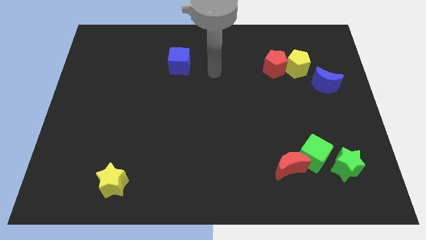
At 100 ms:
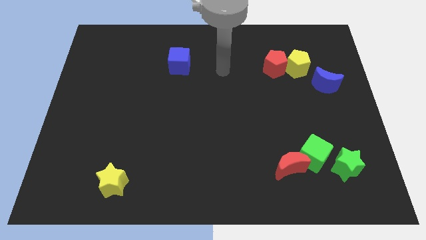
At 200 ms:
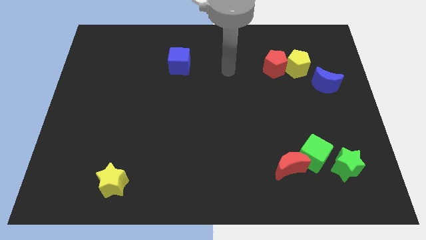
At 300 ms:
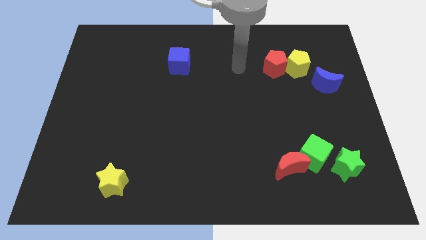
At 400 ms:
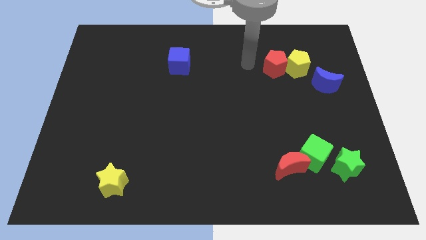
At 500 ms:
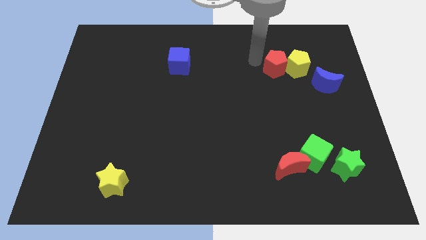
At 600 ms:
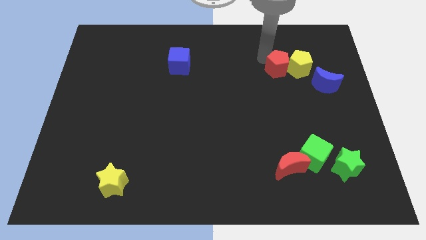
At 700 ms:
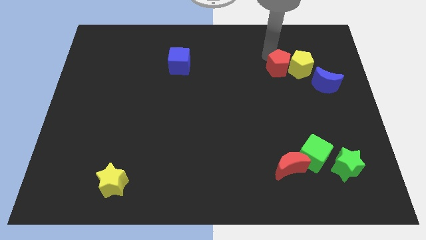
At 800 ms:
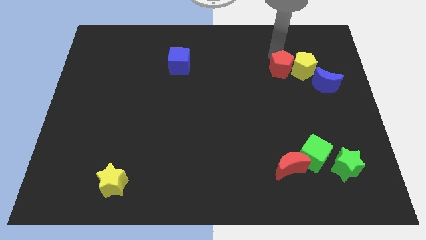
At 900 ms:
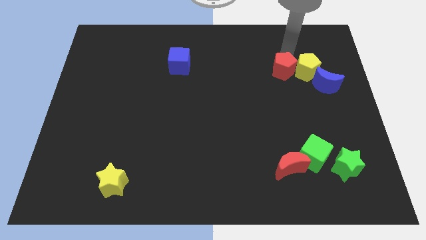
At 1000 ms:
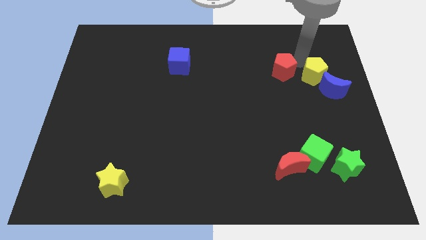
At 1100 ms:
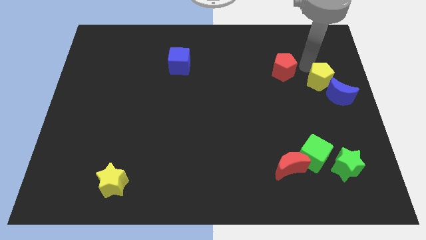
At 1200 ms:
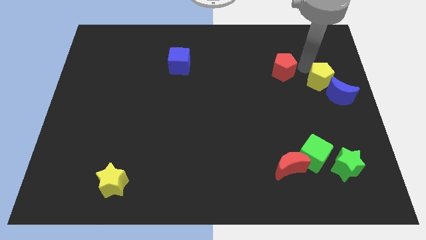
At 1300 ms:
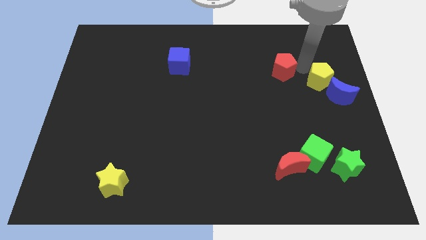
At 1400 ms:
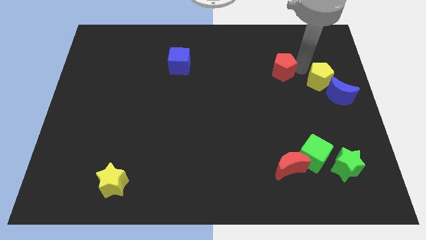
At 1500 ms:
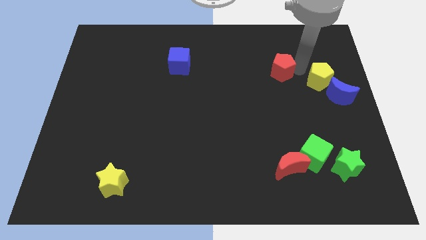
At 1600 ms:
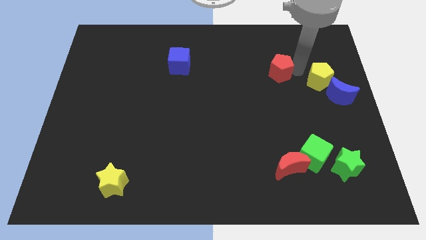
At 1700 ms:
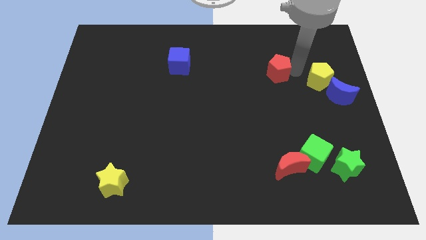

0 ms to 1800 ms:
move the red pentagon away from the yellow pentagon

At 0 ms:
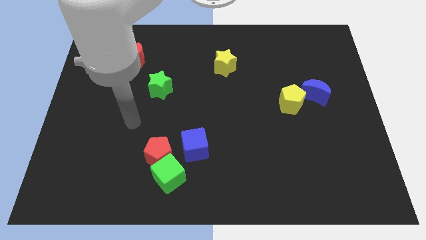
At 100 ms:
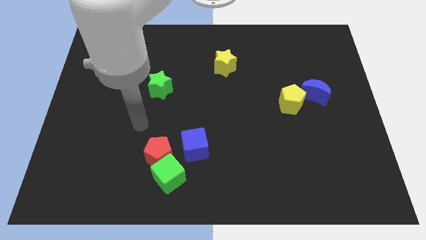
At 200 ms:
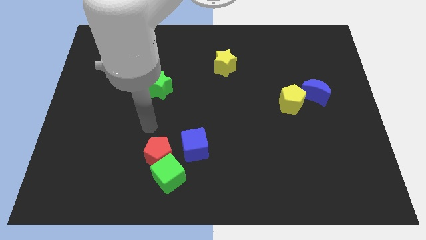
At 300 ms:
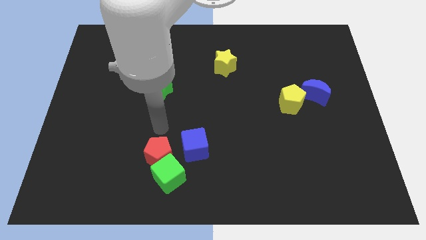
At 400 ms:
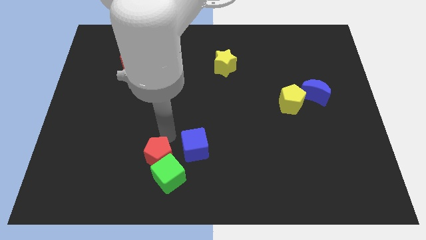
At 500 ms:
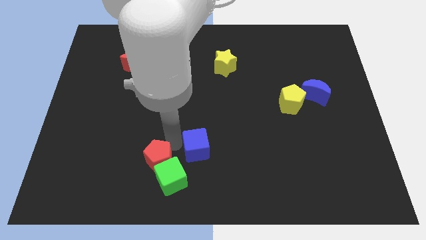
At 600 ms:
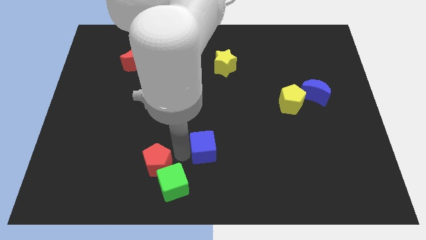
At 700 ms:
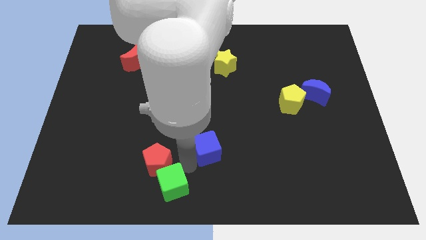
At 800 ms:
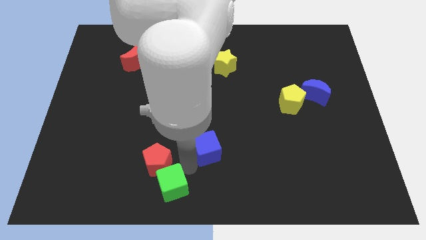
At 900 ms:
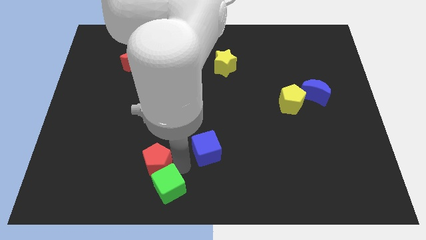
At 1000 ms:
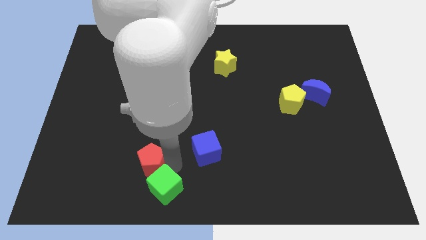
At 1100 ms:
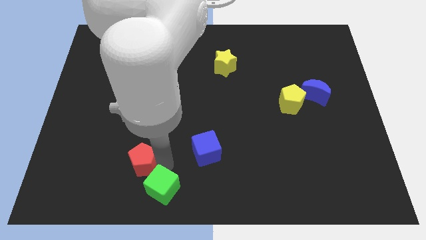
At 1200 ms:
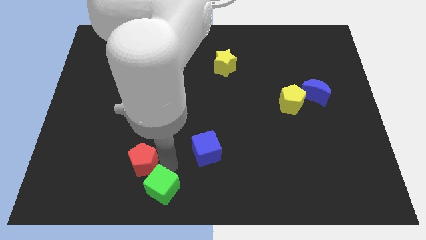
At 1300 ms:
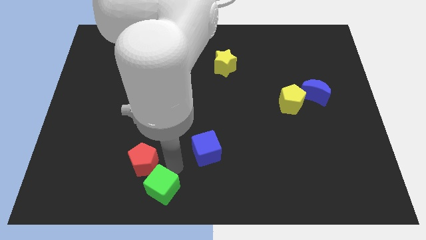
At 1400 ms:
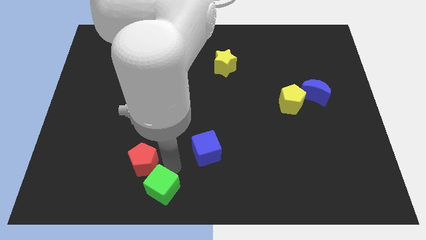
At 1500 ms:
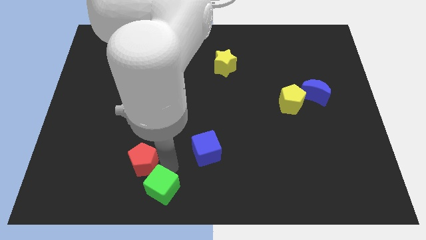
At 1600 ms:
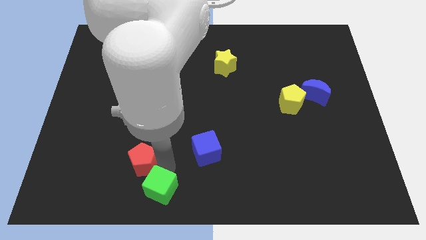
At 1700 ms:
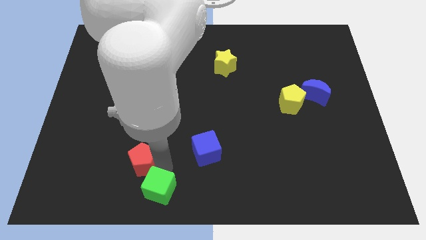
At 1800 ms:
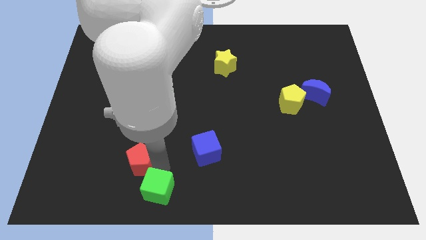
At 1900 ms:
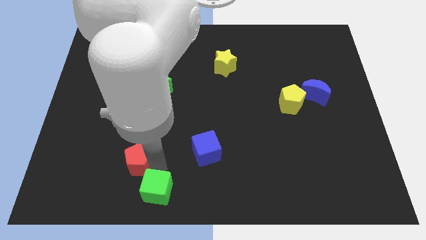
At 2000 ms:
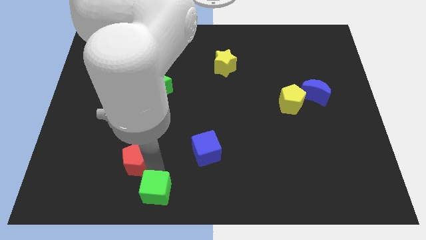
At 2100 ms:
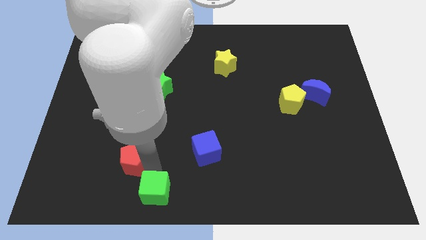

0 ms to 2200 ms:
move the red pentagon away from the green cube and blue cube

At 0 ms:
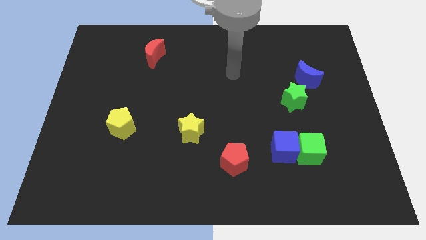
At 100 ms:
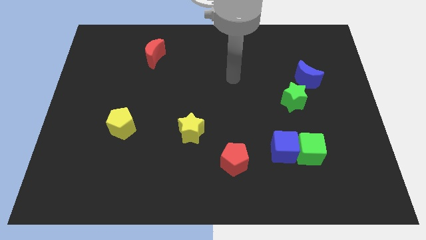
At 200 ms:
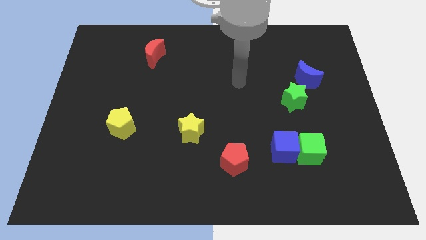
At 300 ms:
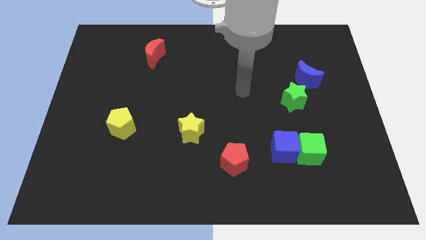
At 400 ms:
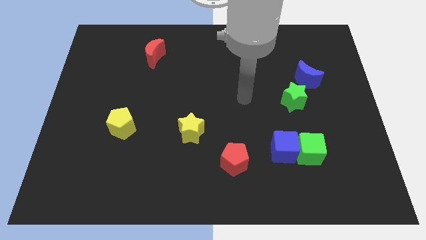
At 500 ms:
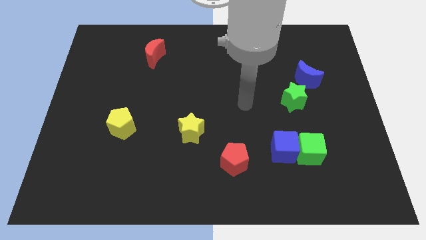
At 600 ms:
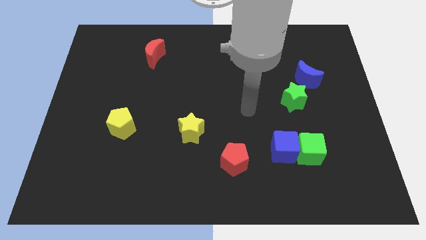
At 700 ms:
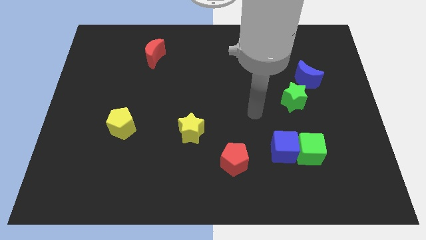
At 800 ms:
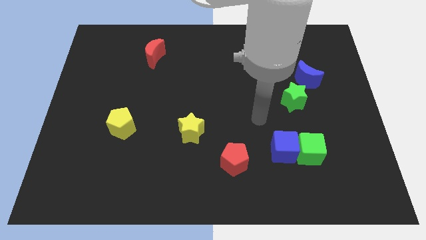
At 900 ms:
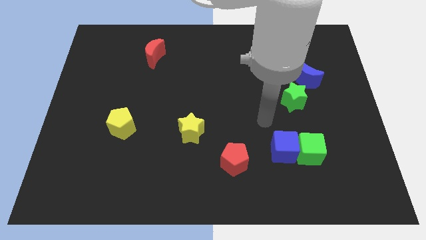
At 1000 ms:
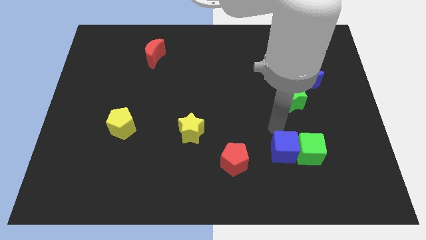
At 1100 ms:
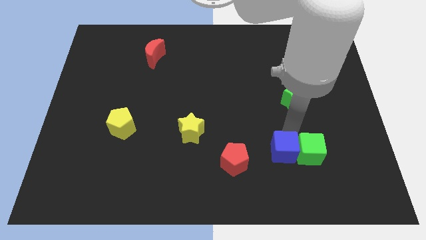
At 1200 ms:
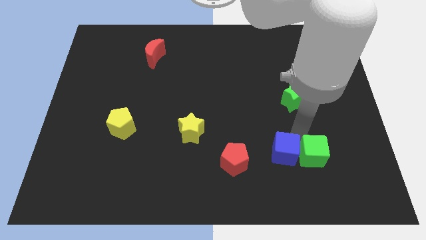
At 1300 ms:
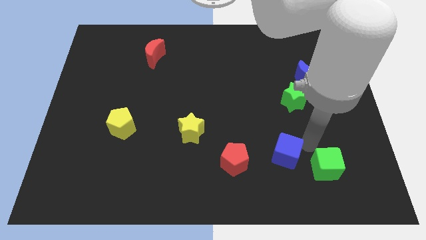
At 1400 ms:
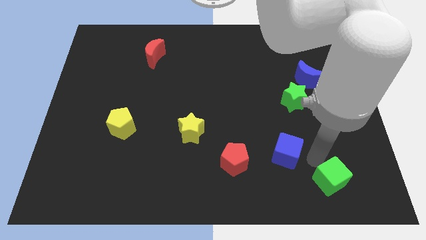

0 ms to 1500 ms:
pull the blue cube apart from the green cube

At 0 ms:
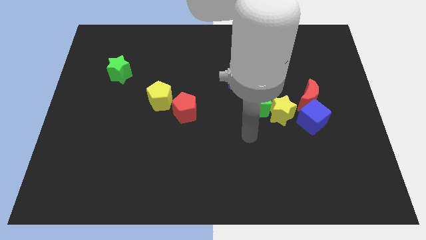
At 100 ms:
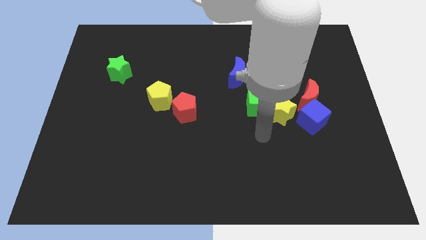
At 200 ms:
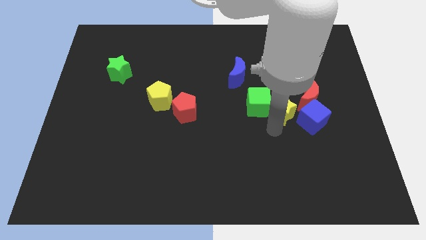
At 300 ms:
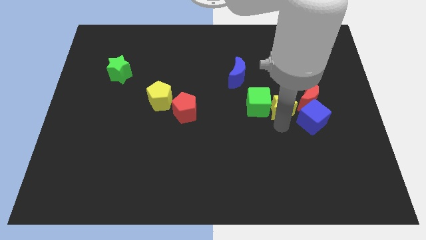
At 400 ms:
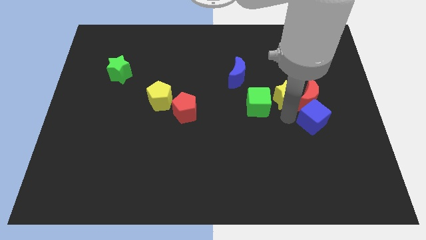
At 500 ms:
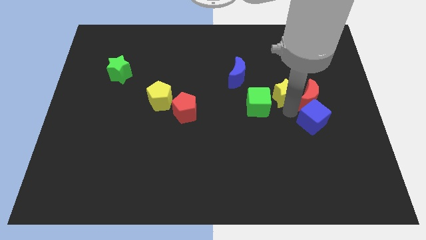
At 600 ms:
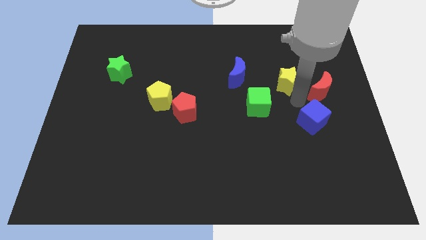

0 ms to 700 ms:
pull the blue cube apart from the red moon and yellow star

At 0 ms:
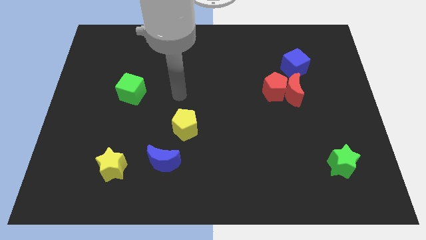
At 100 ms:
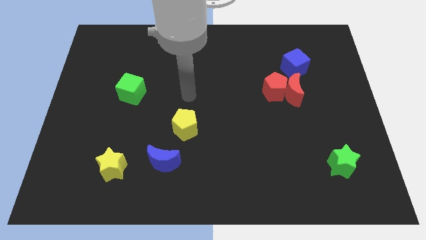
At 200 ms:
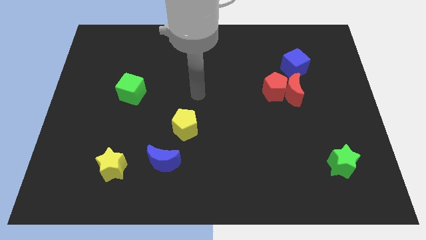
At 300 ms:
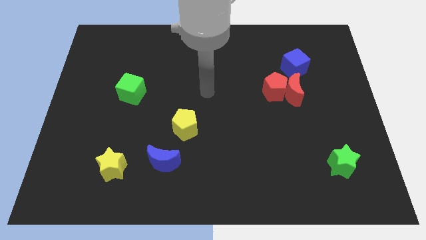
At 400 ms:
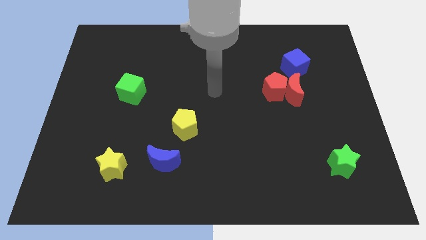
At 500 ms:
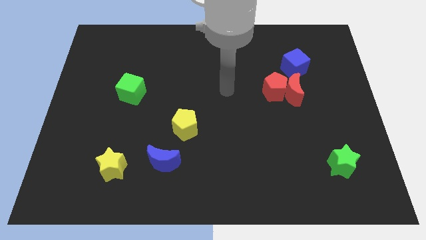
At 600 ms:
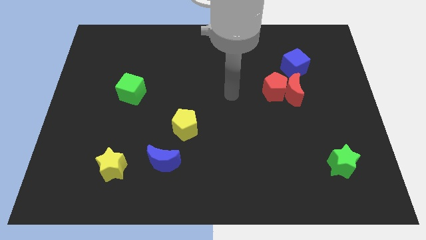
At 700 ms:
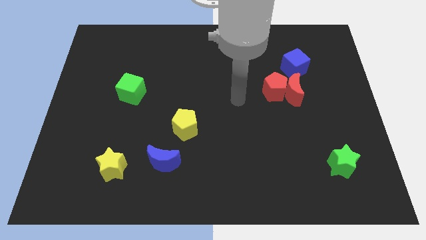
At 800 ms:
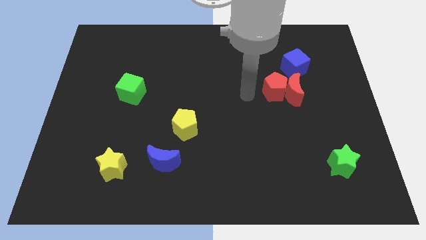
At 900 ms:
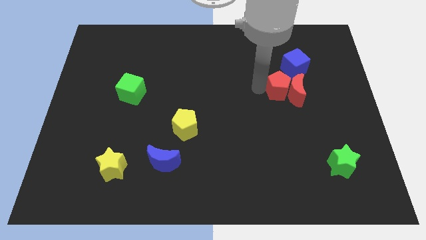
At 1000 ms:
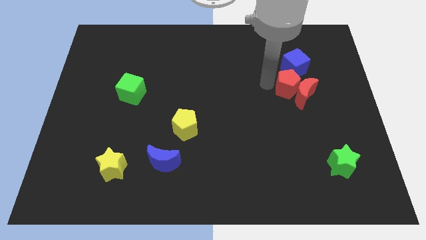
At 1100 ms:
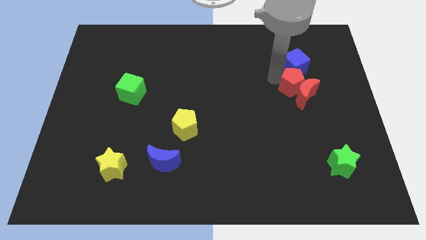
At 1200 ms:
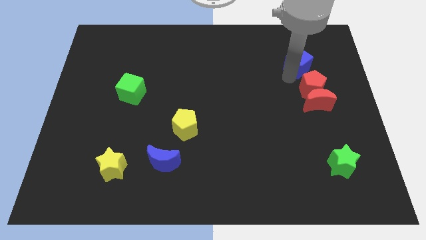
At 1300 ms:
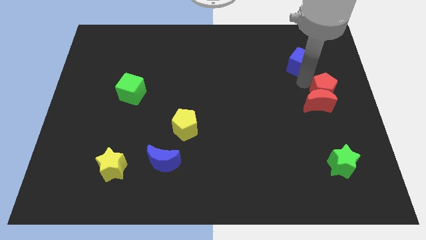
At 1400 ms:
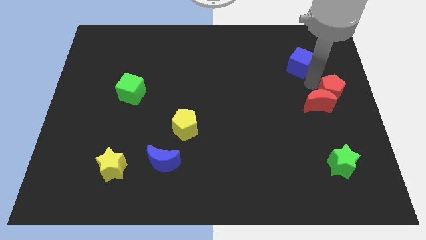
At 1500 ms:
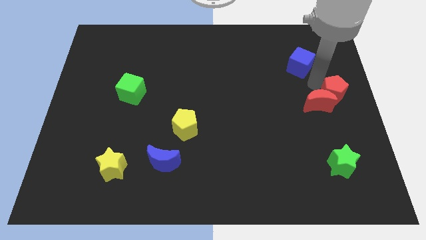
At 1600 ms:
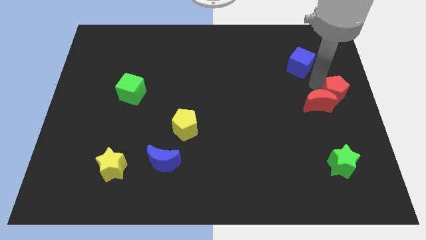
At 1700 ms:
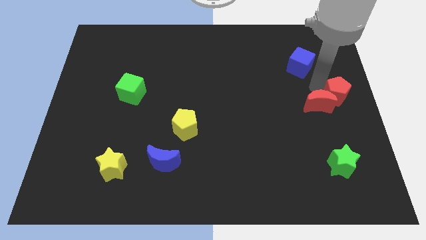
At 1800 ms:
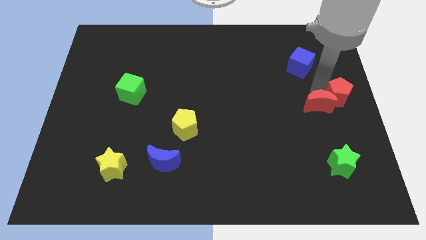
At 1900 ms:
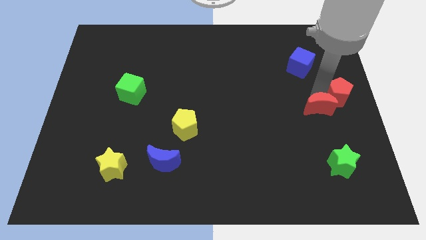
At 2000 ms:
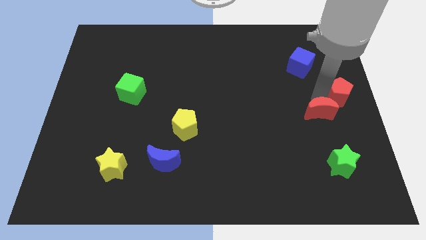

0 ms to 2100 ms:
separate the red moon from the red pentagon and blue cube

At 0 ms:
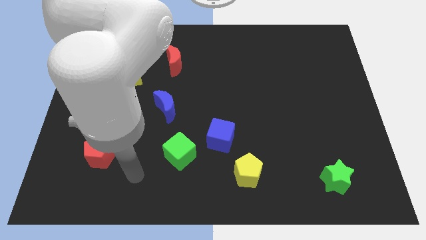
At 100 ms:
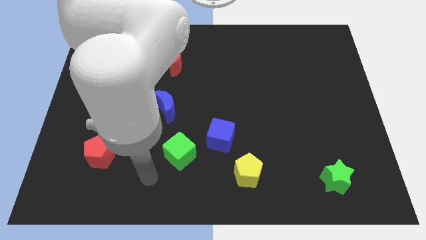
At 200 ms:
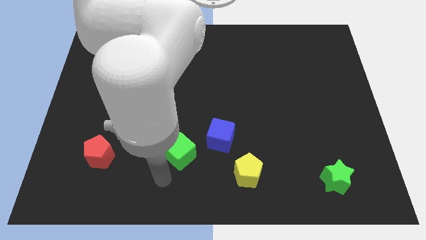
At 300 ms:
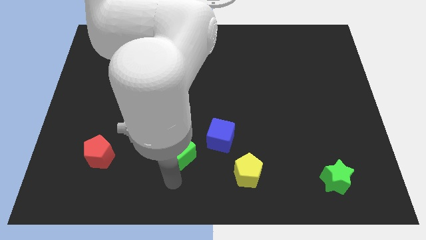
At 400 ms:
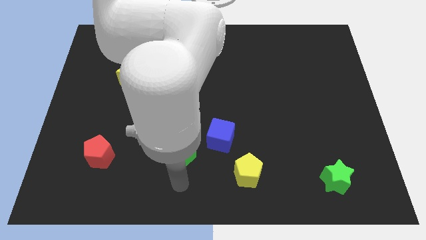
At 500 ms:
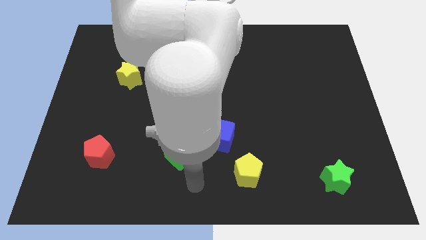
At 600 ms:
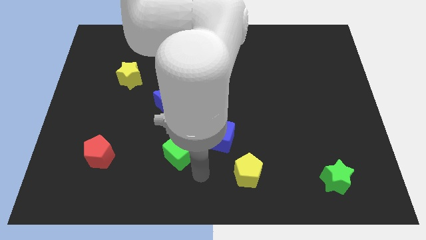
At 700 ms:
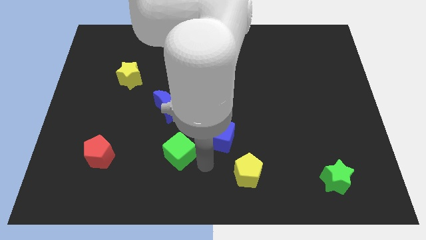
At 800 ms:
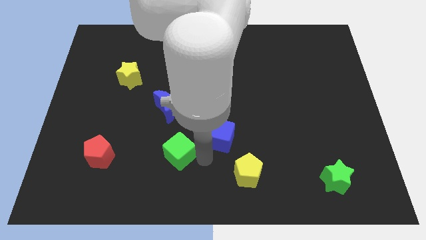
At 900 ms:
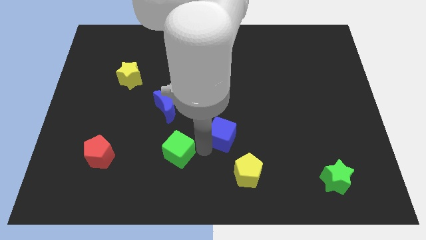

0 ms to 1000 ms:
separate the green cube from the blue cube

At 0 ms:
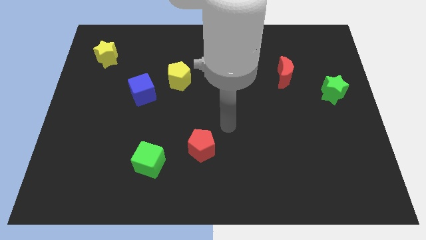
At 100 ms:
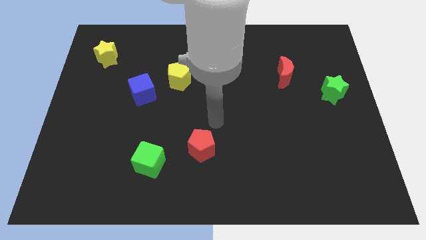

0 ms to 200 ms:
move the blue cube away from the yellow pentagon

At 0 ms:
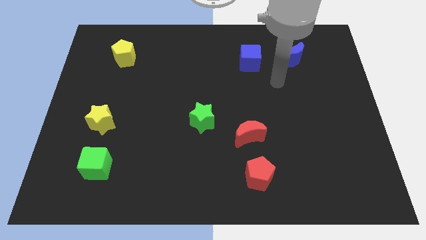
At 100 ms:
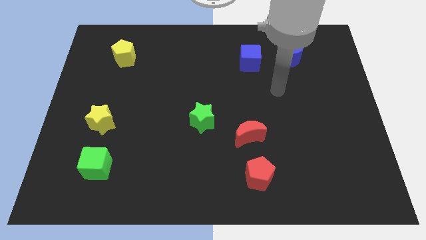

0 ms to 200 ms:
move the red moon away from the red pentagon
